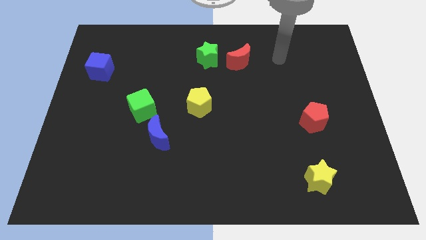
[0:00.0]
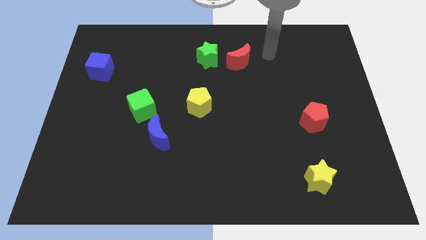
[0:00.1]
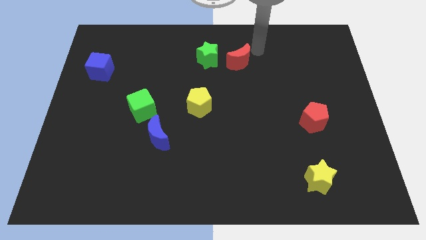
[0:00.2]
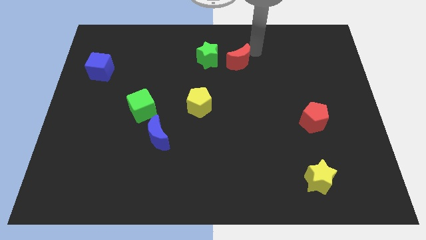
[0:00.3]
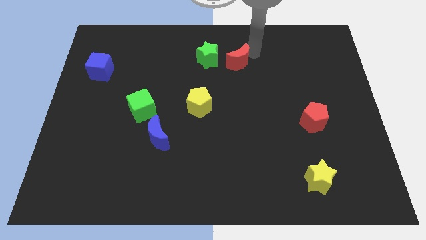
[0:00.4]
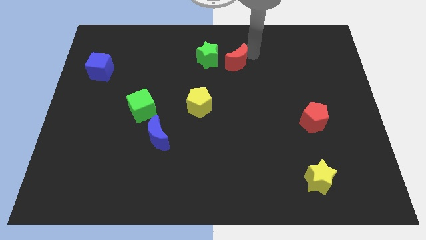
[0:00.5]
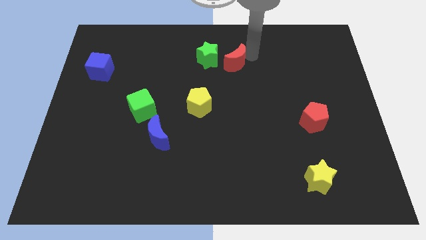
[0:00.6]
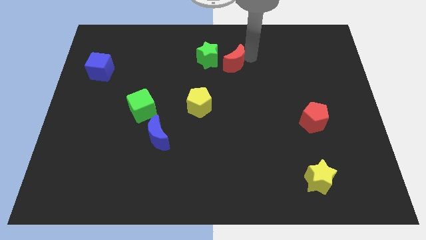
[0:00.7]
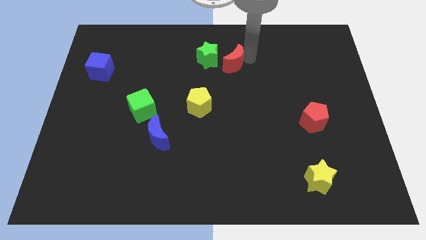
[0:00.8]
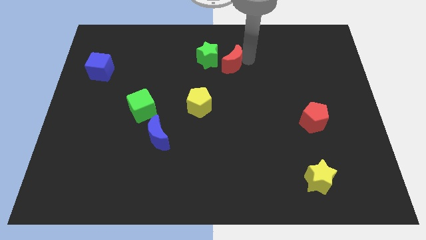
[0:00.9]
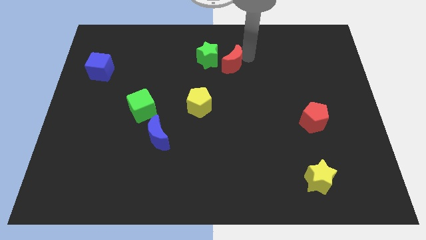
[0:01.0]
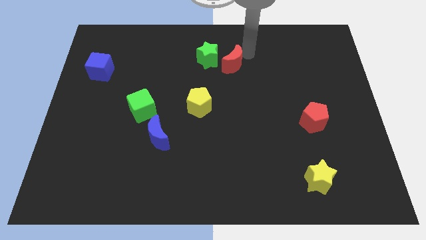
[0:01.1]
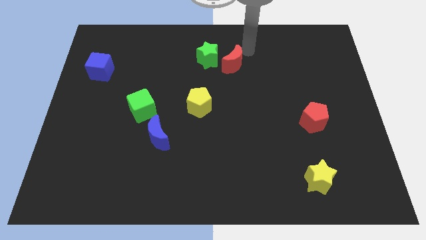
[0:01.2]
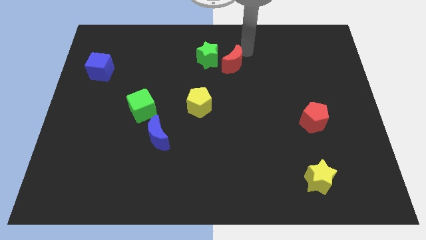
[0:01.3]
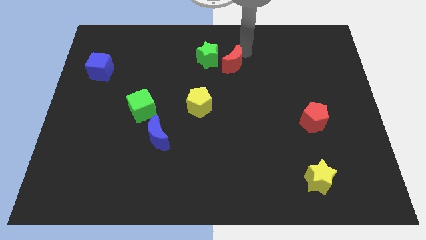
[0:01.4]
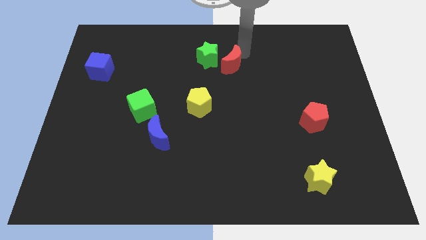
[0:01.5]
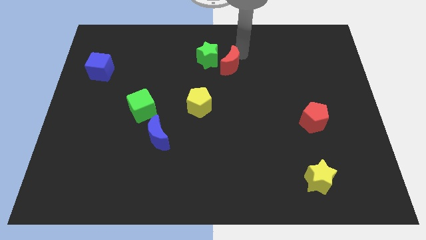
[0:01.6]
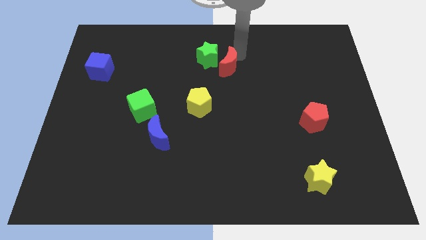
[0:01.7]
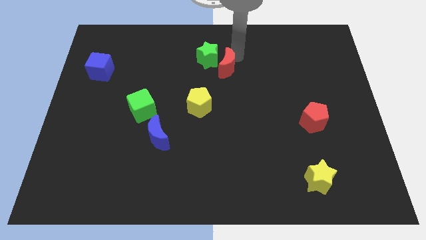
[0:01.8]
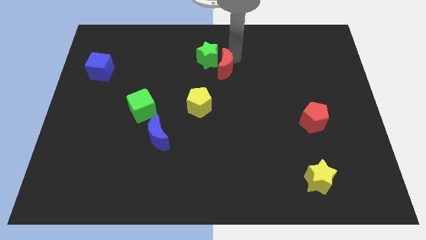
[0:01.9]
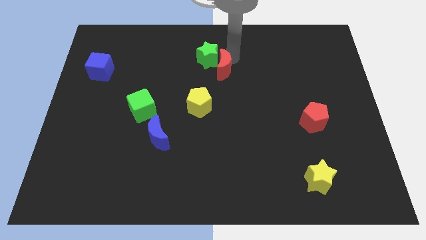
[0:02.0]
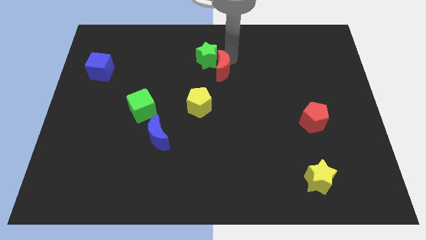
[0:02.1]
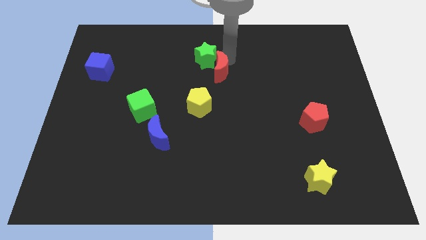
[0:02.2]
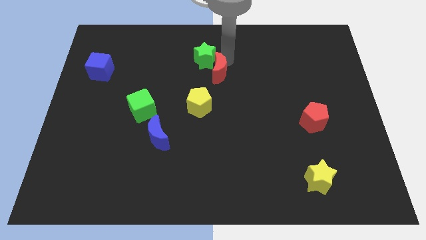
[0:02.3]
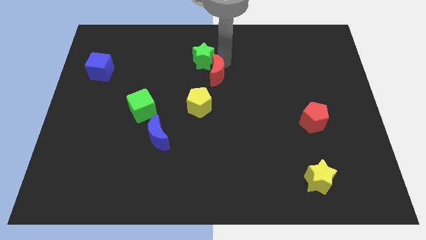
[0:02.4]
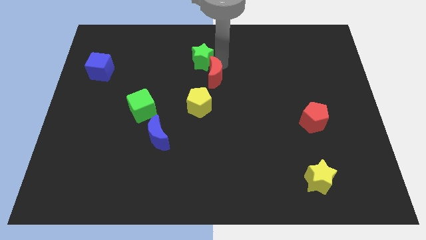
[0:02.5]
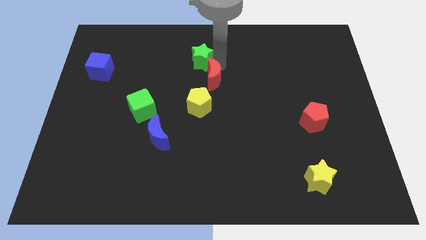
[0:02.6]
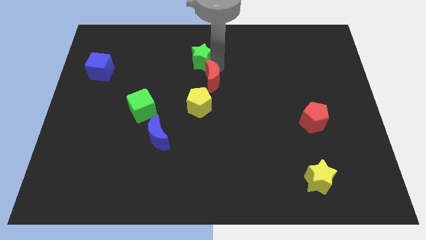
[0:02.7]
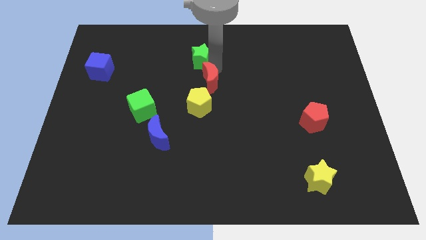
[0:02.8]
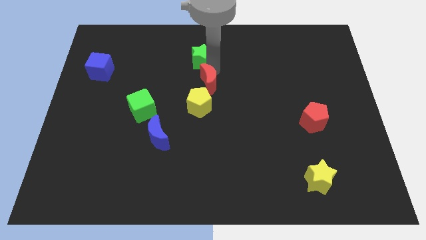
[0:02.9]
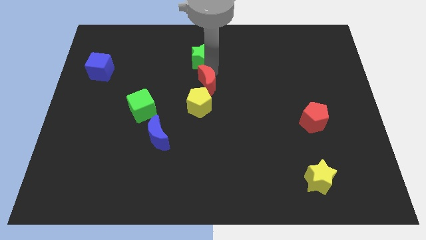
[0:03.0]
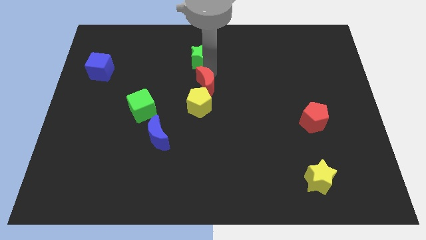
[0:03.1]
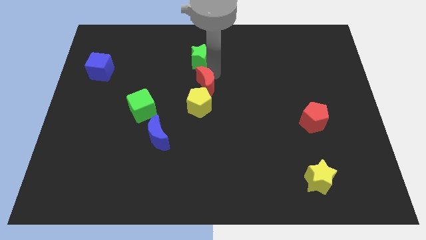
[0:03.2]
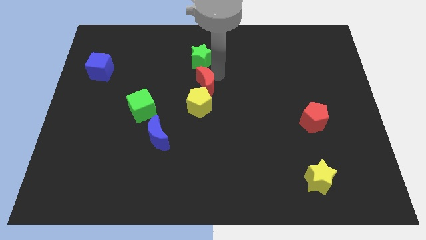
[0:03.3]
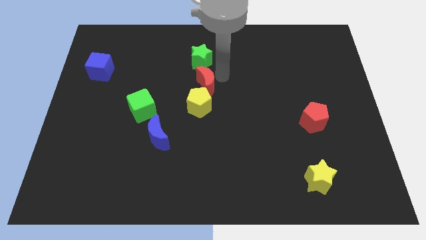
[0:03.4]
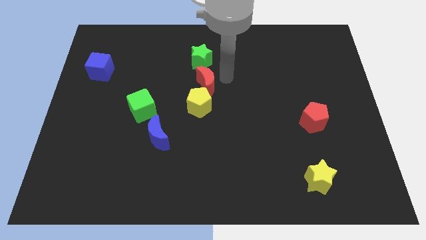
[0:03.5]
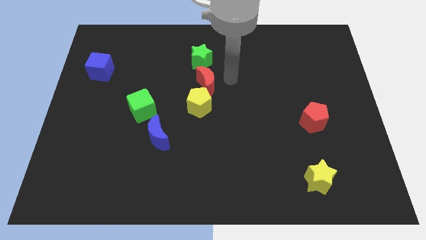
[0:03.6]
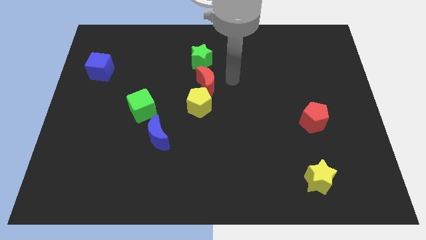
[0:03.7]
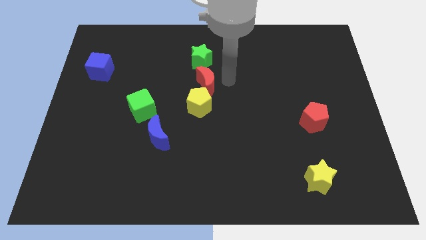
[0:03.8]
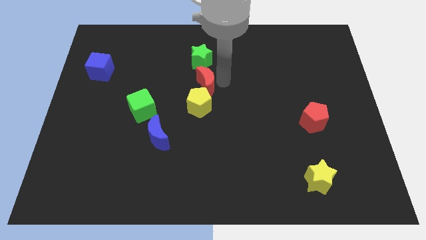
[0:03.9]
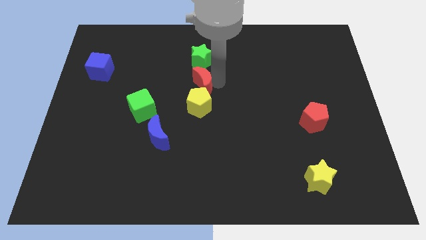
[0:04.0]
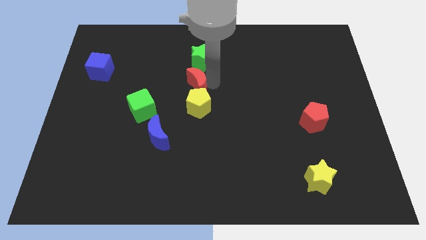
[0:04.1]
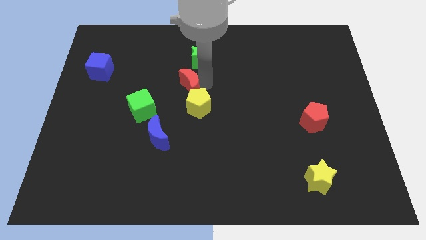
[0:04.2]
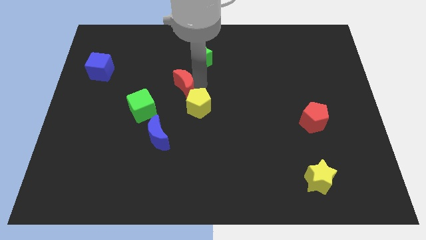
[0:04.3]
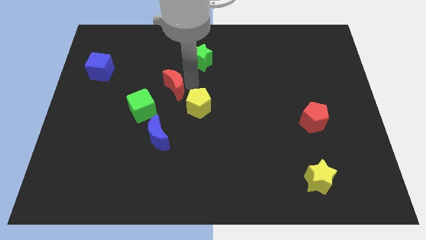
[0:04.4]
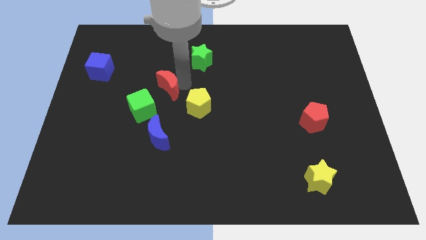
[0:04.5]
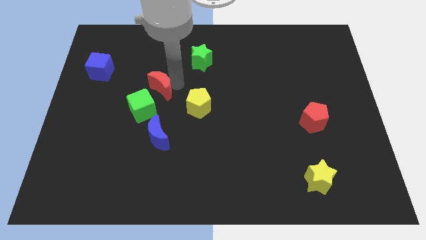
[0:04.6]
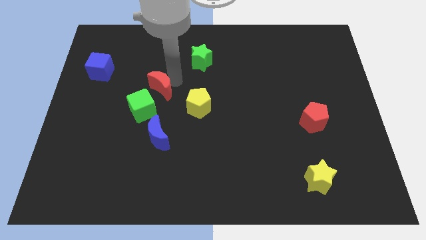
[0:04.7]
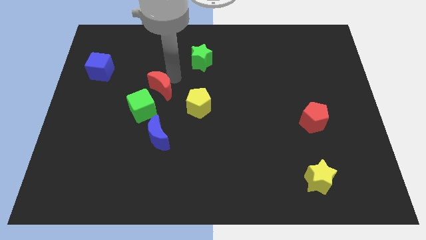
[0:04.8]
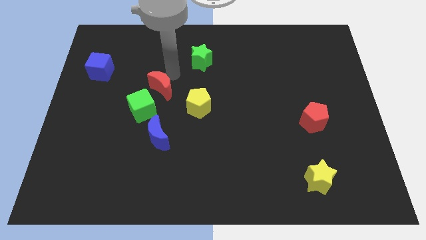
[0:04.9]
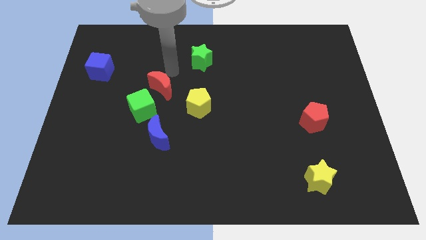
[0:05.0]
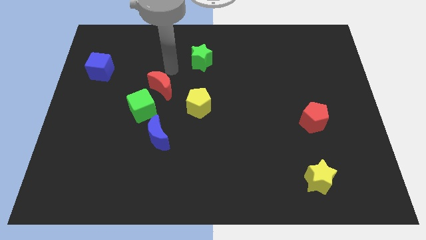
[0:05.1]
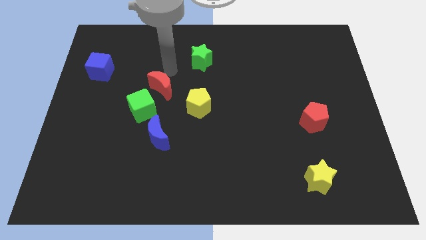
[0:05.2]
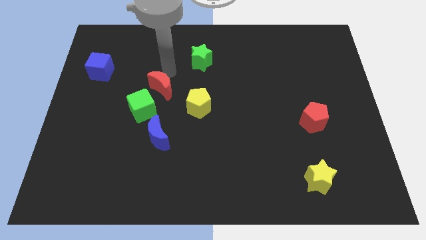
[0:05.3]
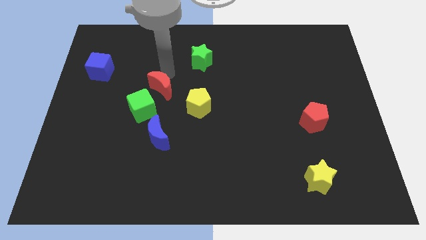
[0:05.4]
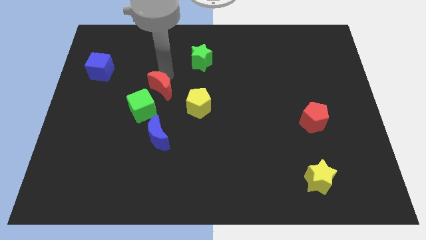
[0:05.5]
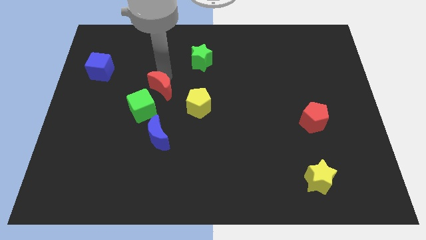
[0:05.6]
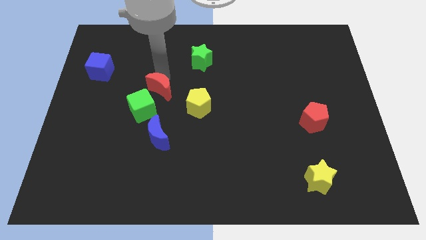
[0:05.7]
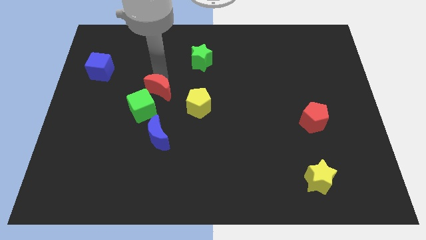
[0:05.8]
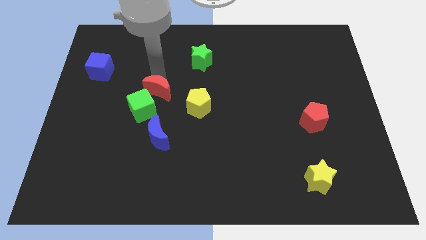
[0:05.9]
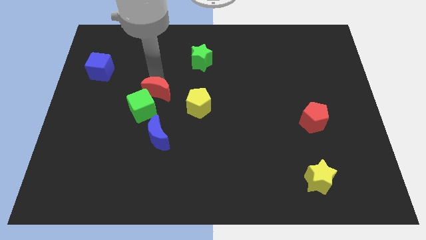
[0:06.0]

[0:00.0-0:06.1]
move the red moon towards the green cube

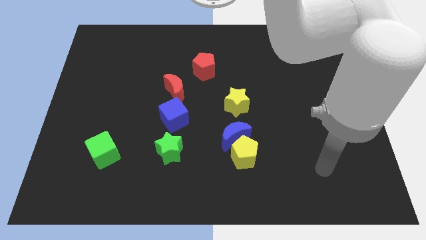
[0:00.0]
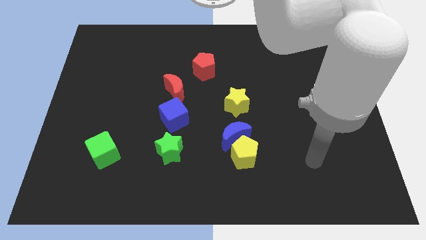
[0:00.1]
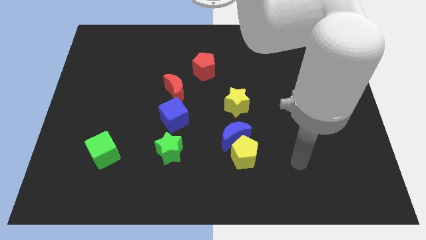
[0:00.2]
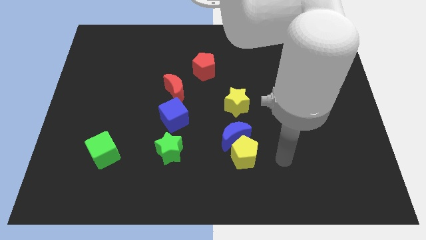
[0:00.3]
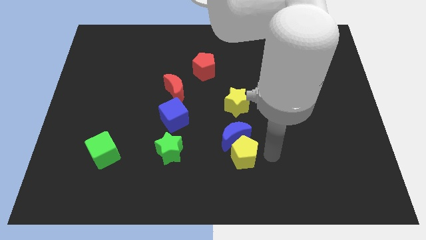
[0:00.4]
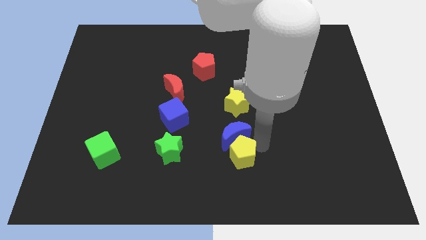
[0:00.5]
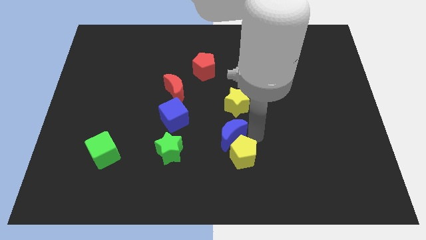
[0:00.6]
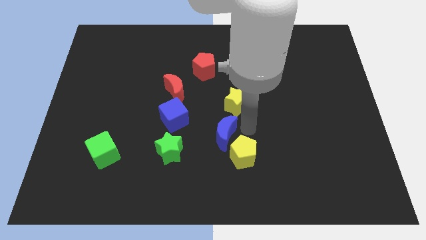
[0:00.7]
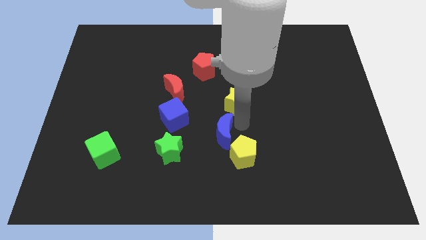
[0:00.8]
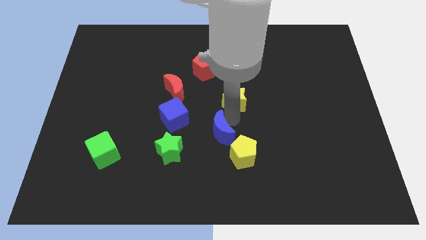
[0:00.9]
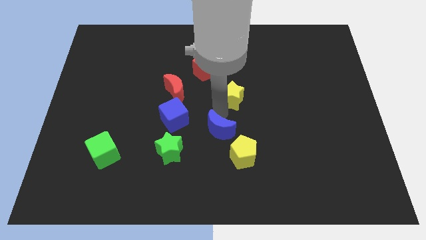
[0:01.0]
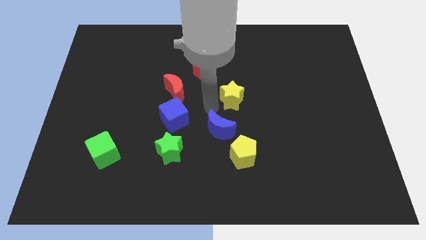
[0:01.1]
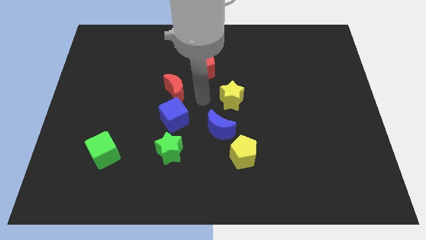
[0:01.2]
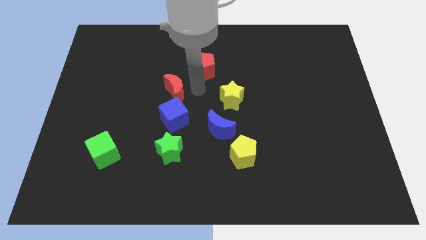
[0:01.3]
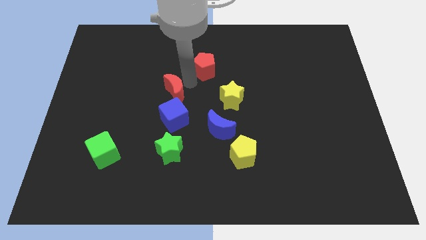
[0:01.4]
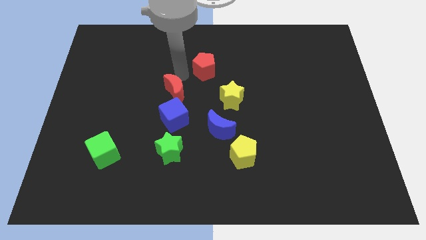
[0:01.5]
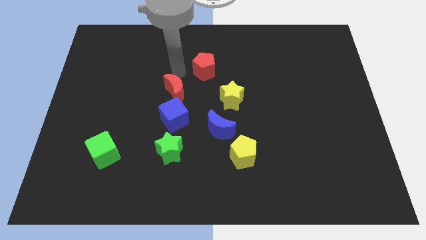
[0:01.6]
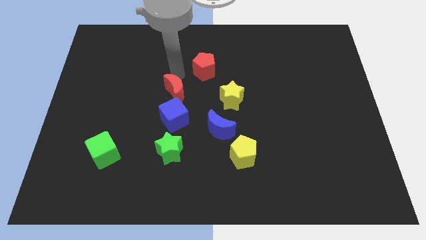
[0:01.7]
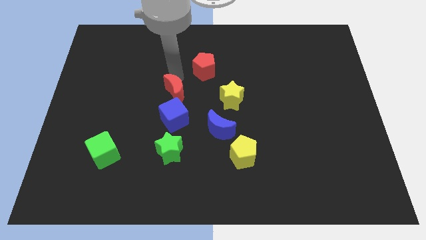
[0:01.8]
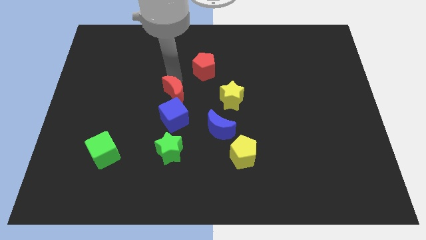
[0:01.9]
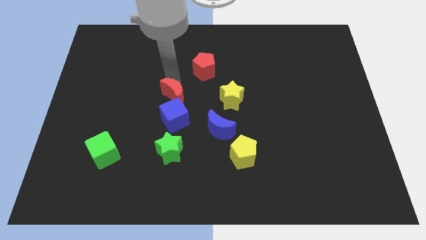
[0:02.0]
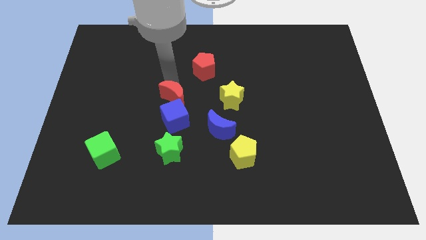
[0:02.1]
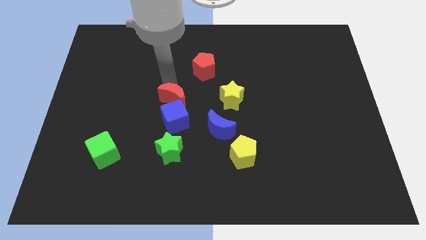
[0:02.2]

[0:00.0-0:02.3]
slide the red moon to the blue cube
